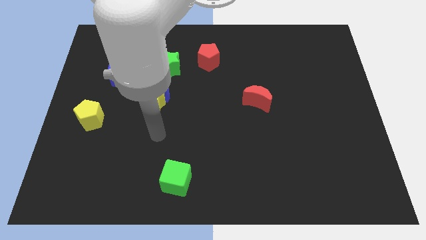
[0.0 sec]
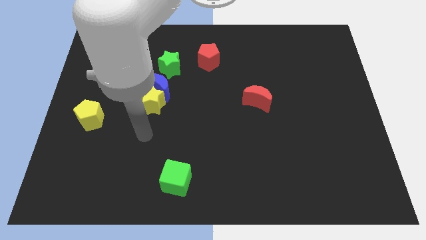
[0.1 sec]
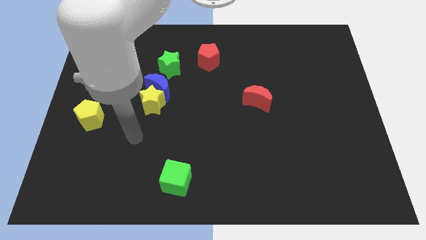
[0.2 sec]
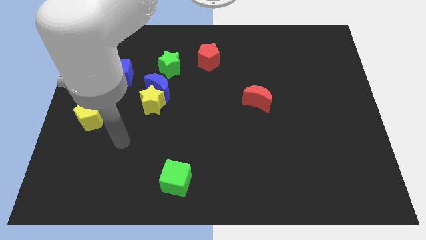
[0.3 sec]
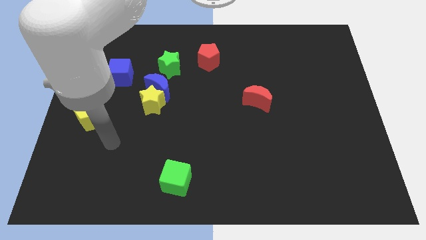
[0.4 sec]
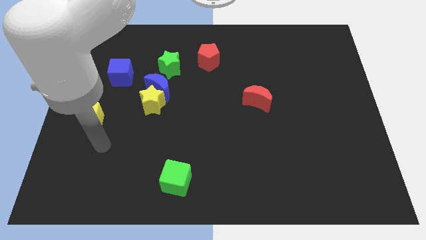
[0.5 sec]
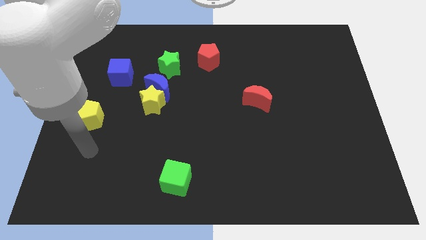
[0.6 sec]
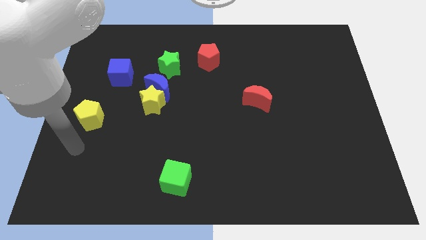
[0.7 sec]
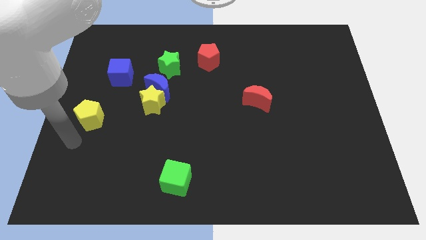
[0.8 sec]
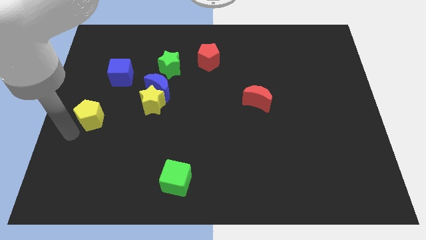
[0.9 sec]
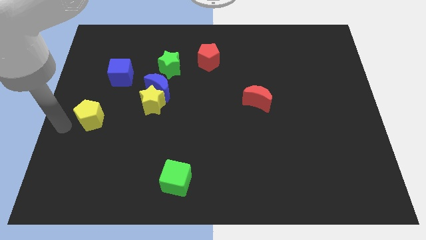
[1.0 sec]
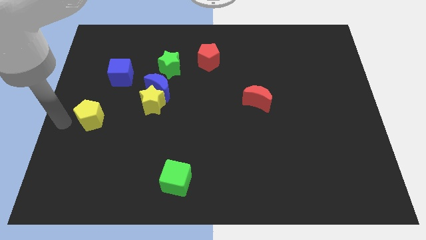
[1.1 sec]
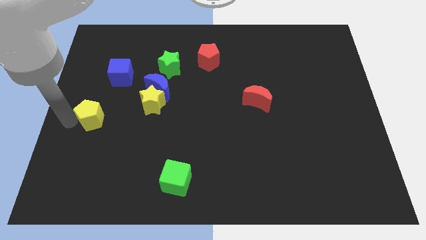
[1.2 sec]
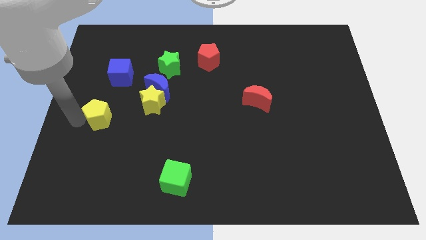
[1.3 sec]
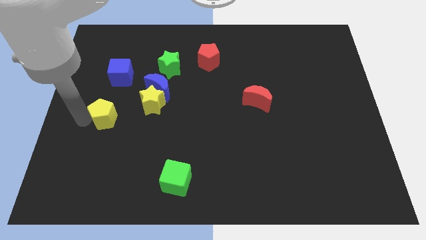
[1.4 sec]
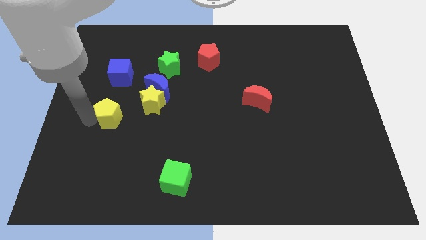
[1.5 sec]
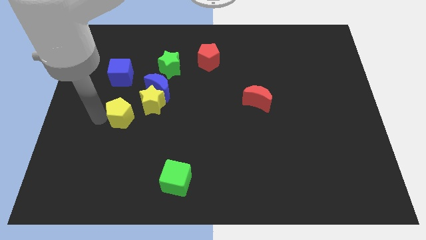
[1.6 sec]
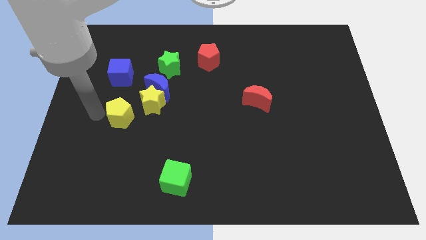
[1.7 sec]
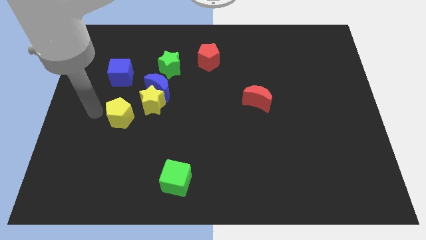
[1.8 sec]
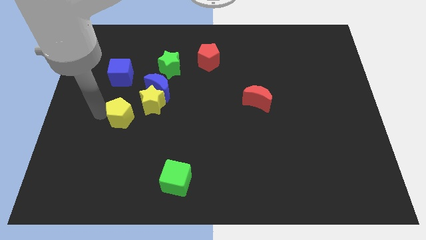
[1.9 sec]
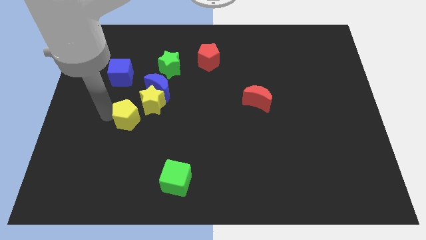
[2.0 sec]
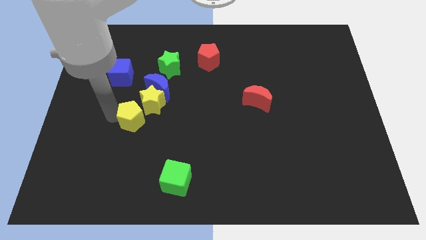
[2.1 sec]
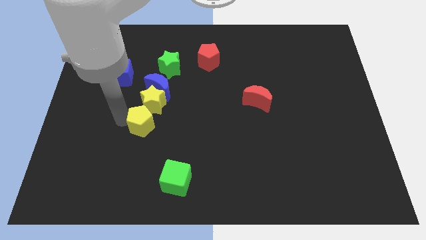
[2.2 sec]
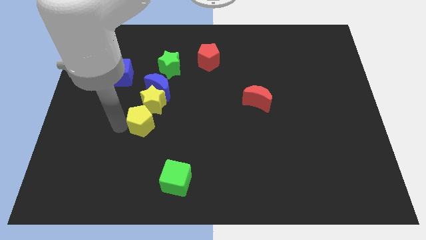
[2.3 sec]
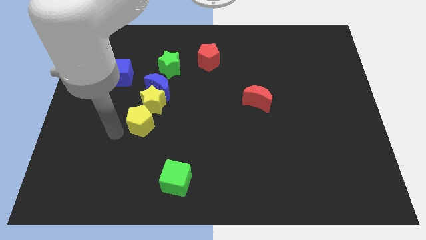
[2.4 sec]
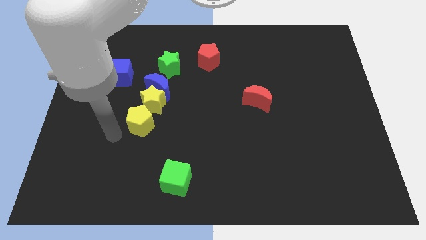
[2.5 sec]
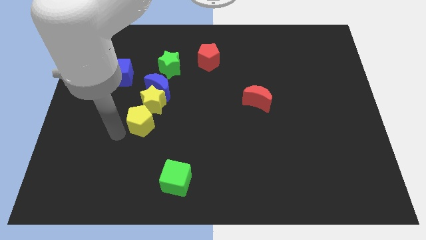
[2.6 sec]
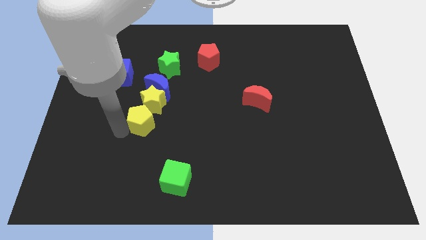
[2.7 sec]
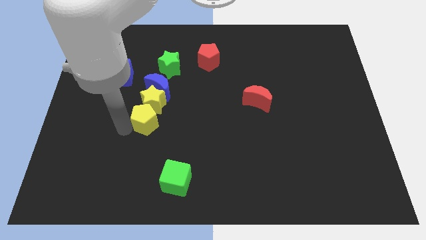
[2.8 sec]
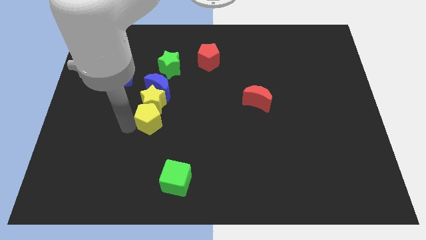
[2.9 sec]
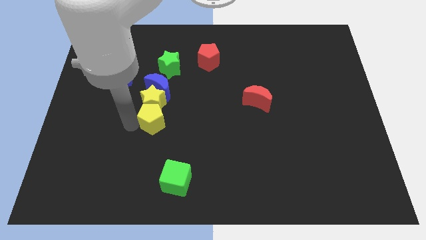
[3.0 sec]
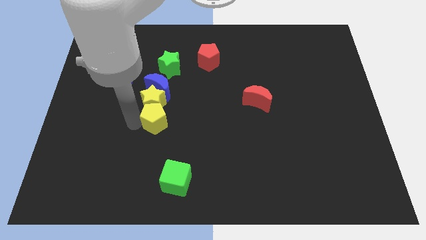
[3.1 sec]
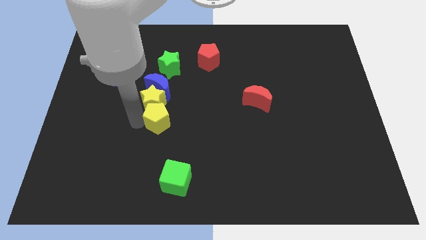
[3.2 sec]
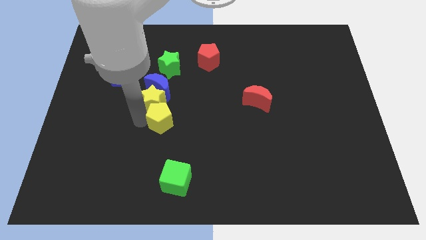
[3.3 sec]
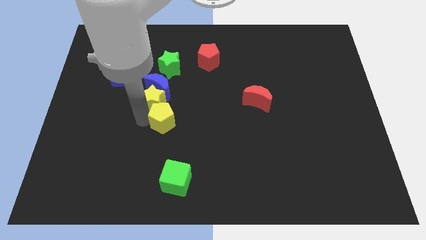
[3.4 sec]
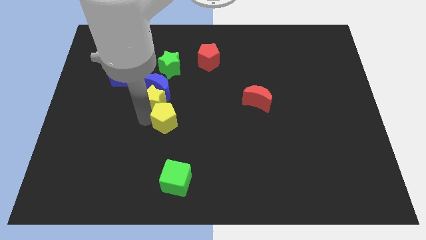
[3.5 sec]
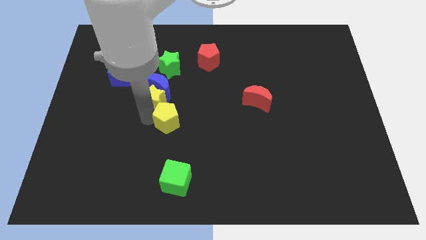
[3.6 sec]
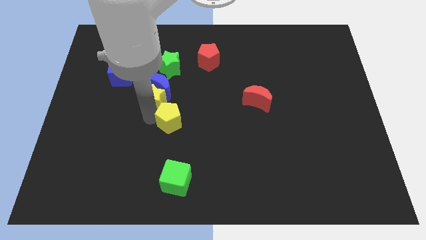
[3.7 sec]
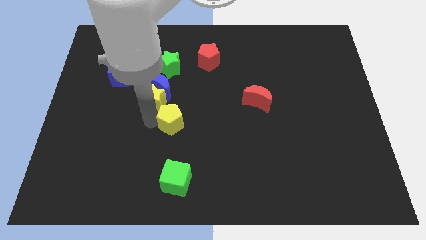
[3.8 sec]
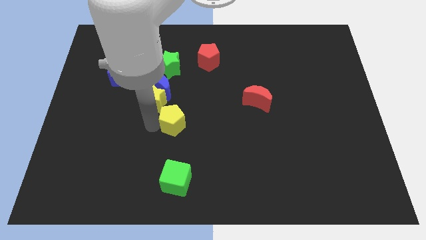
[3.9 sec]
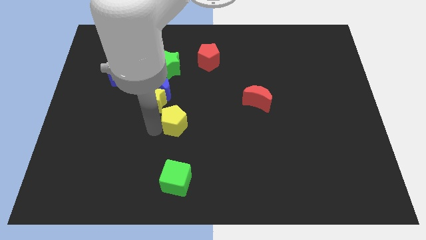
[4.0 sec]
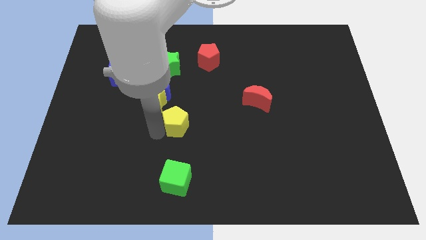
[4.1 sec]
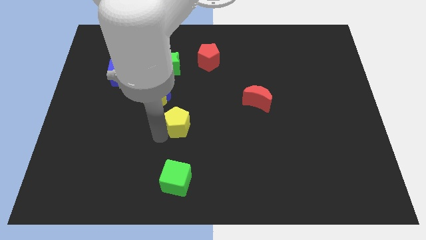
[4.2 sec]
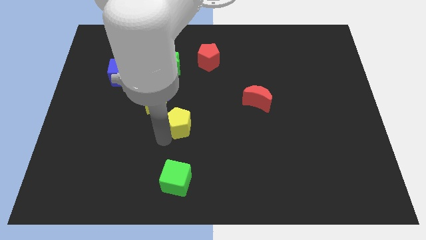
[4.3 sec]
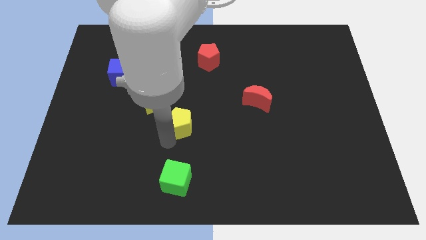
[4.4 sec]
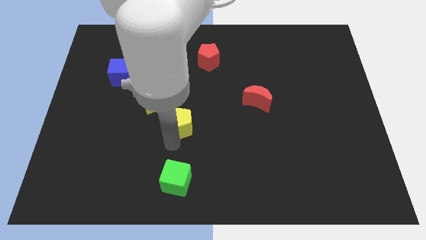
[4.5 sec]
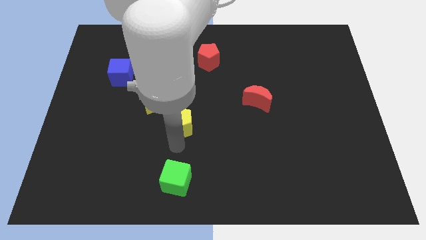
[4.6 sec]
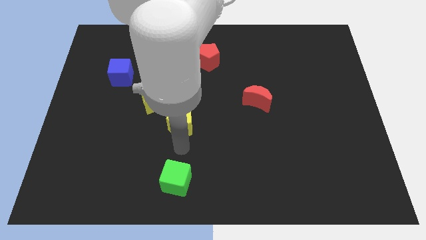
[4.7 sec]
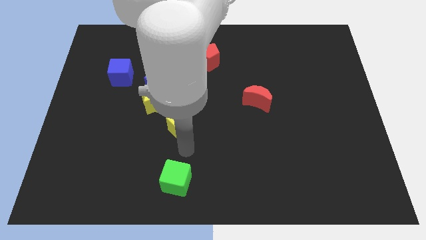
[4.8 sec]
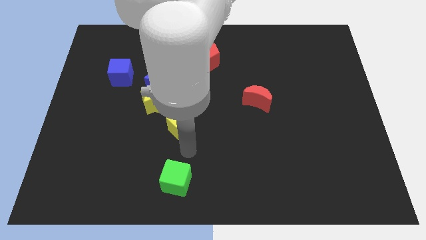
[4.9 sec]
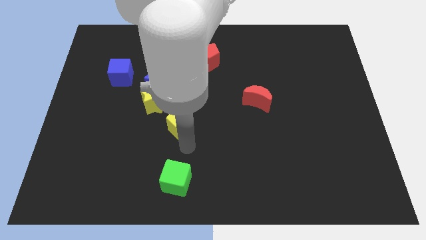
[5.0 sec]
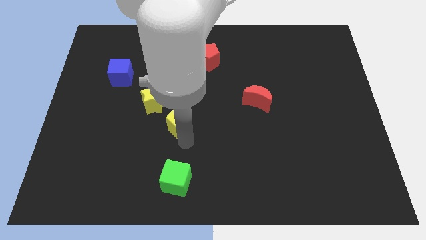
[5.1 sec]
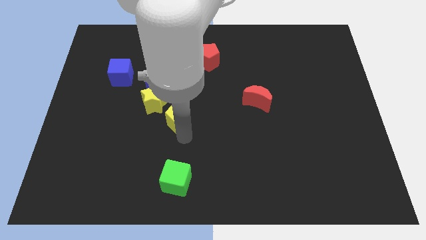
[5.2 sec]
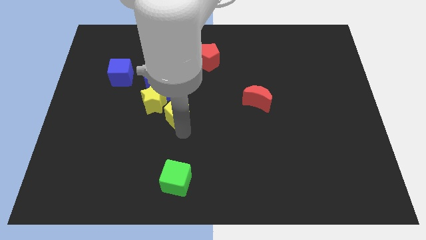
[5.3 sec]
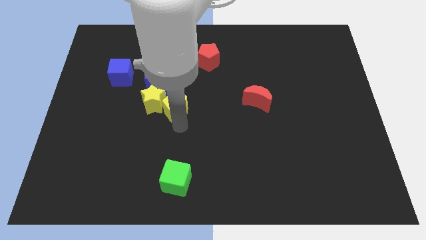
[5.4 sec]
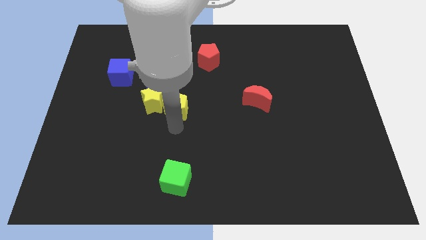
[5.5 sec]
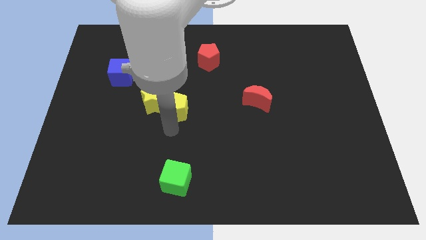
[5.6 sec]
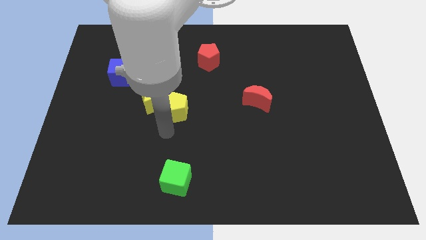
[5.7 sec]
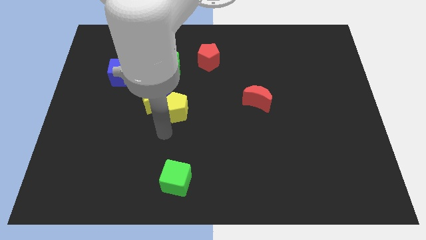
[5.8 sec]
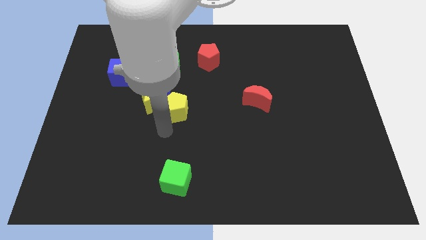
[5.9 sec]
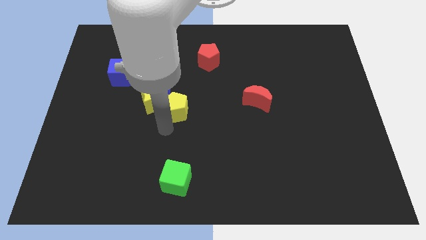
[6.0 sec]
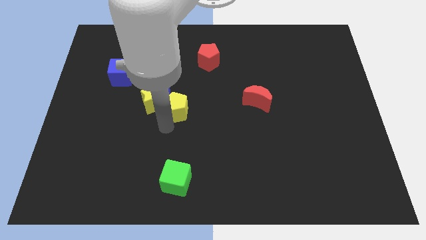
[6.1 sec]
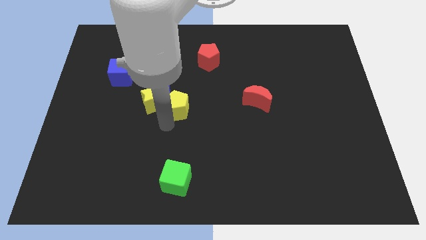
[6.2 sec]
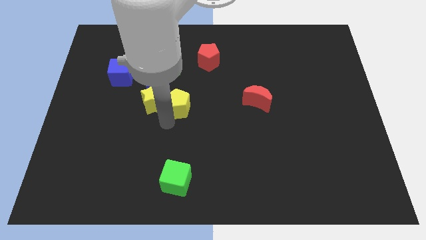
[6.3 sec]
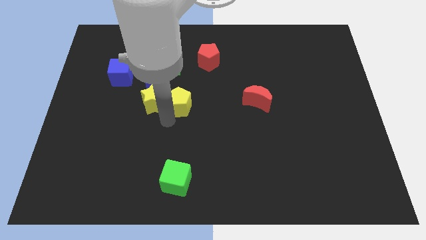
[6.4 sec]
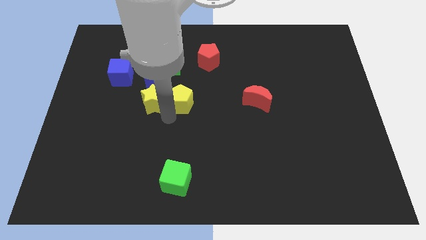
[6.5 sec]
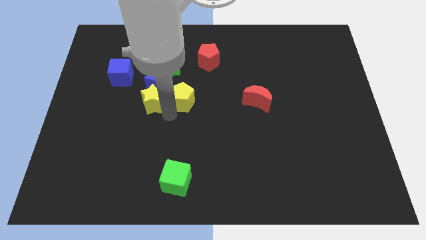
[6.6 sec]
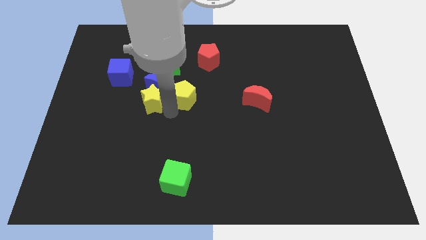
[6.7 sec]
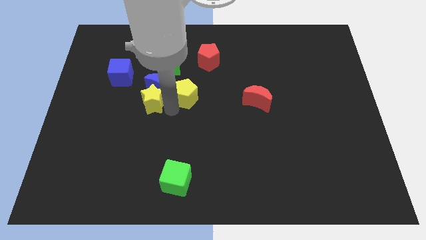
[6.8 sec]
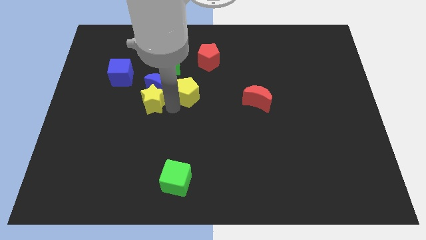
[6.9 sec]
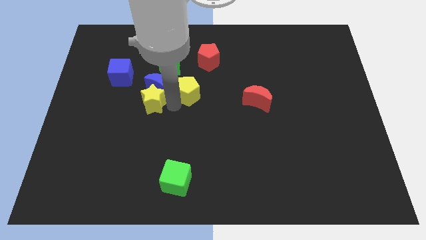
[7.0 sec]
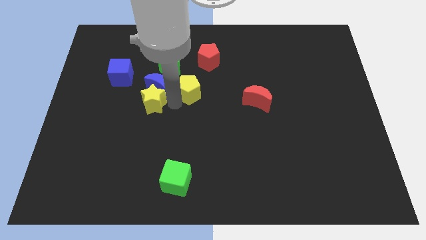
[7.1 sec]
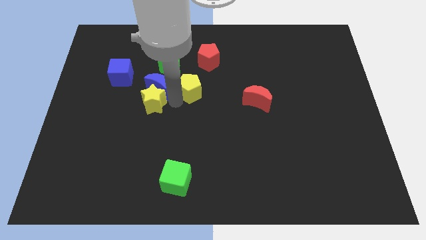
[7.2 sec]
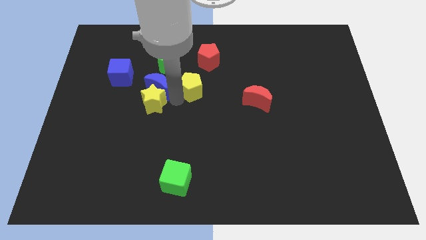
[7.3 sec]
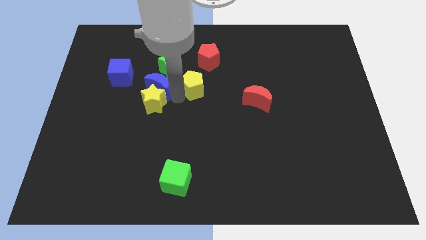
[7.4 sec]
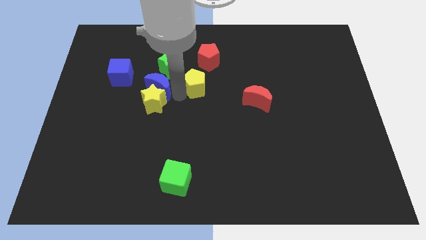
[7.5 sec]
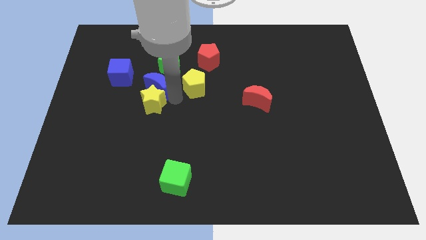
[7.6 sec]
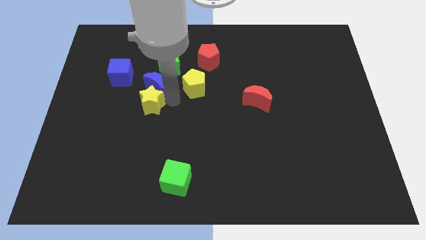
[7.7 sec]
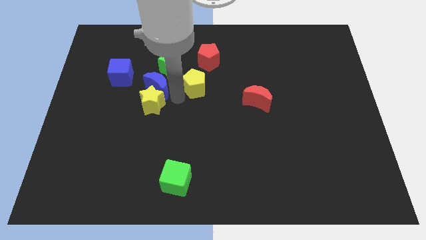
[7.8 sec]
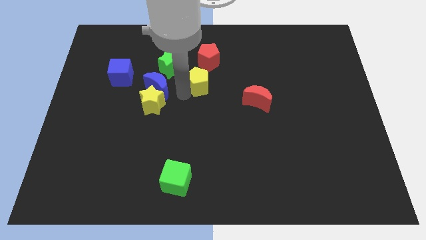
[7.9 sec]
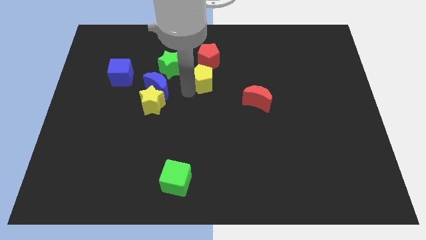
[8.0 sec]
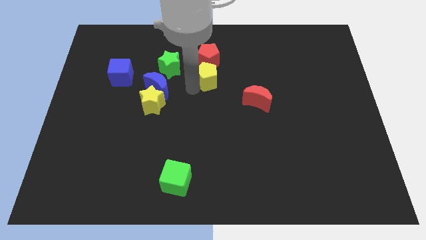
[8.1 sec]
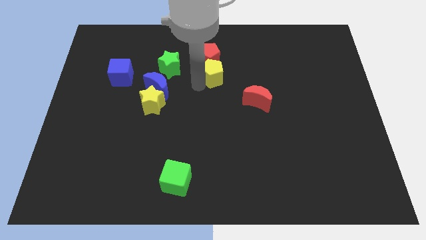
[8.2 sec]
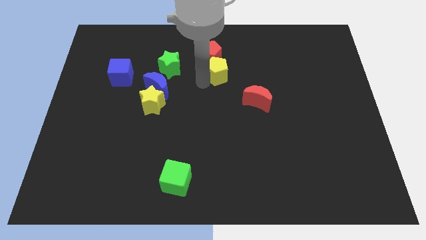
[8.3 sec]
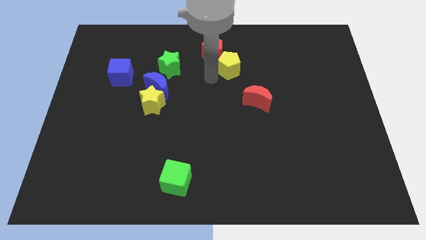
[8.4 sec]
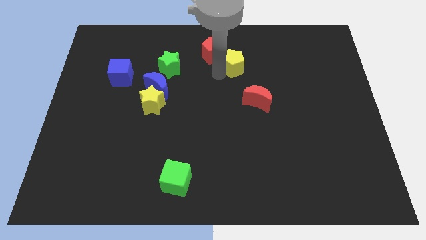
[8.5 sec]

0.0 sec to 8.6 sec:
slide the yellow pentagon to the right of the red pentagon
